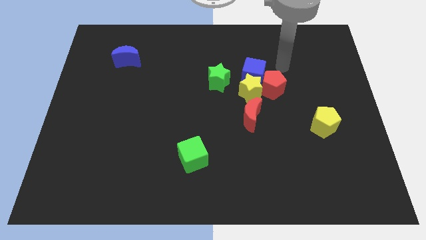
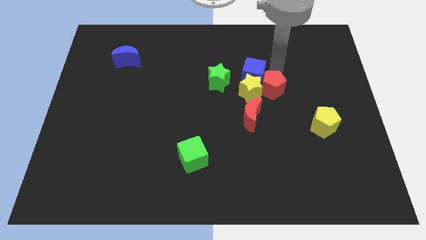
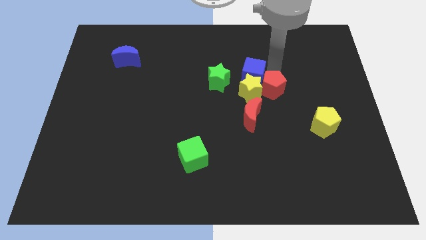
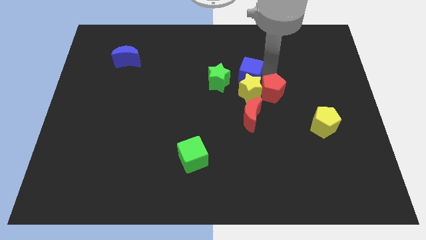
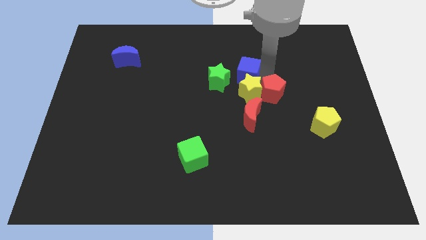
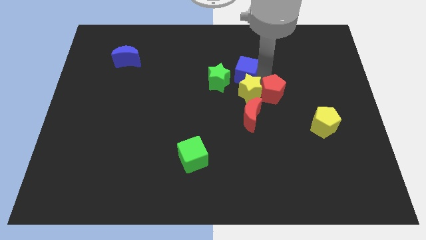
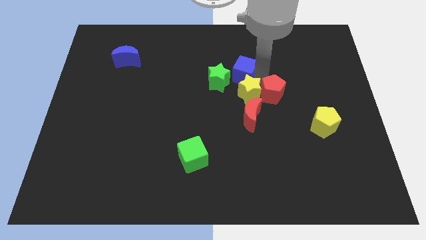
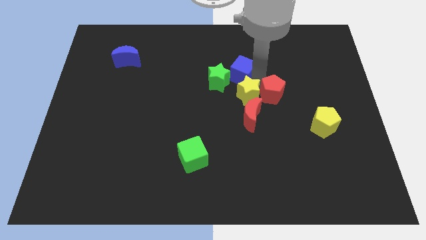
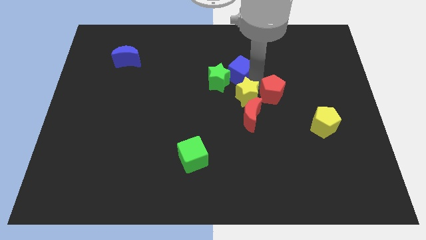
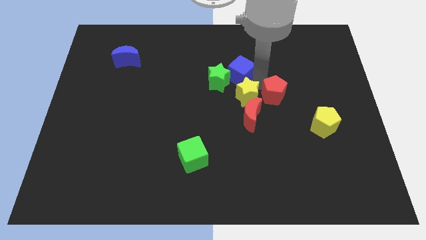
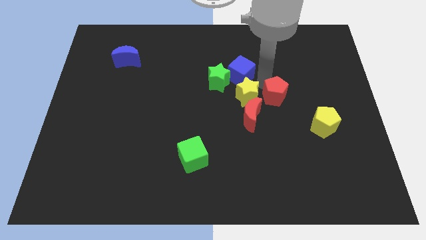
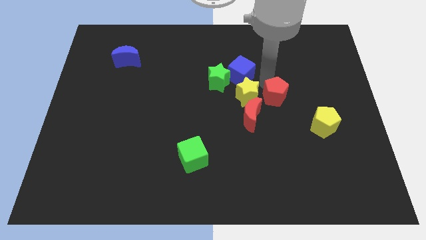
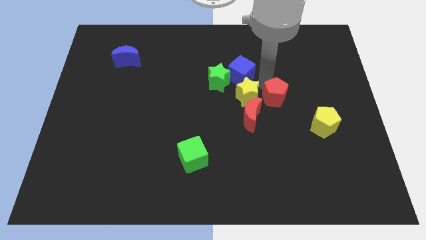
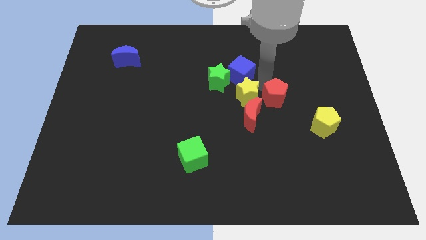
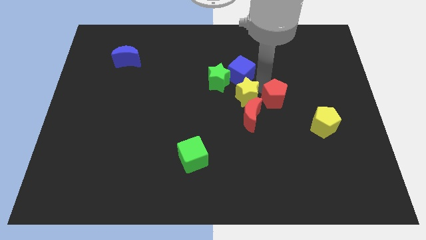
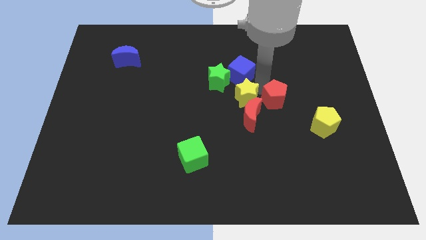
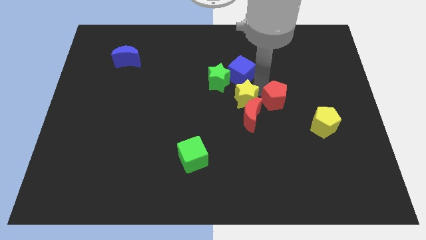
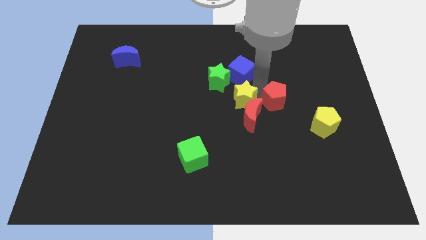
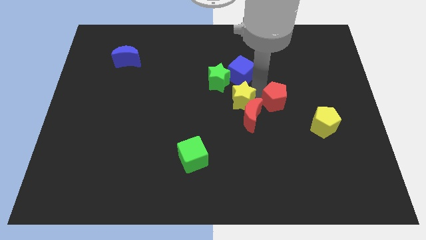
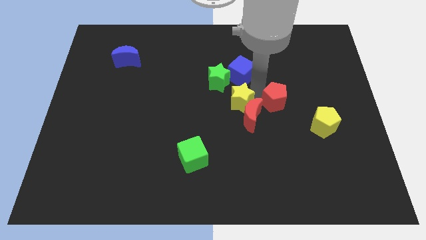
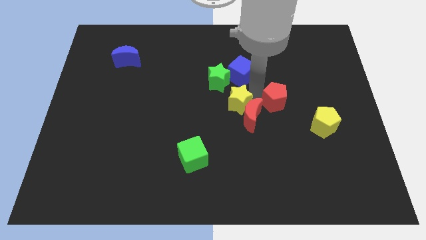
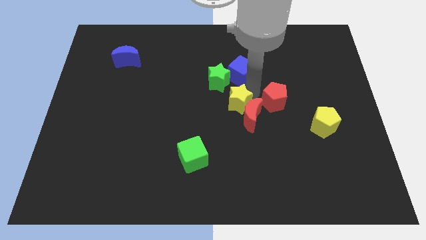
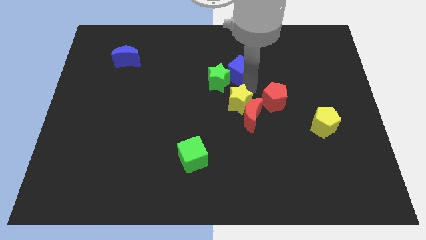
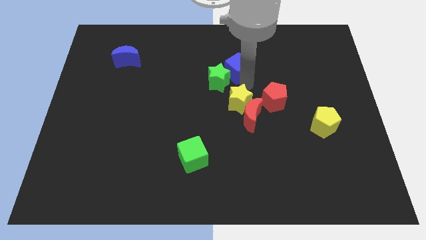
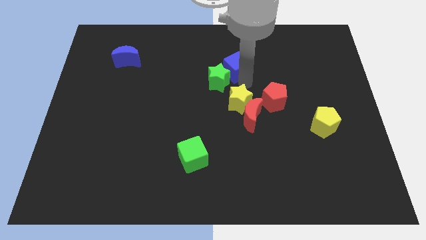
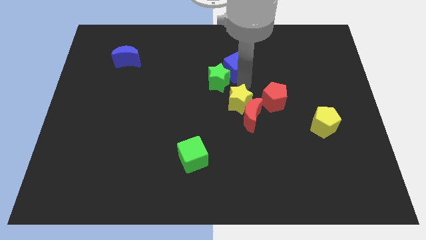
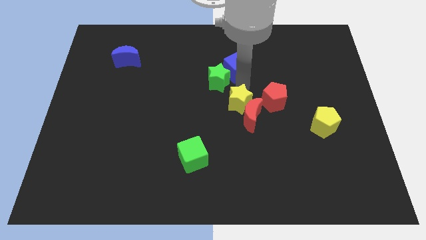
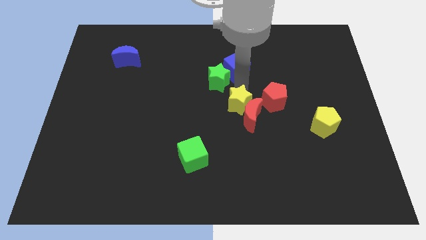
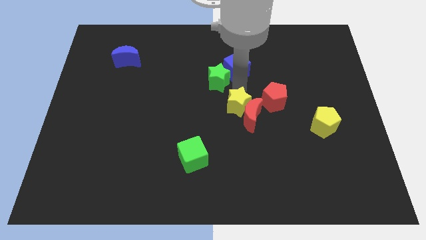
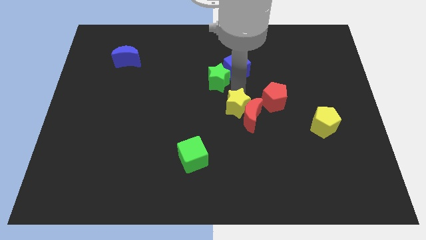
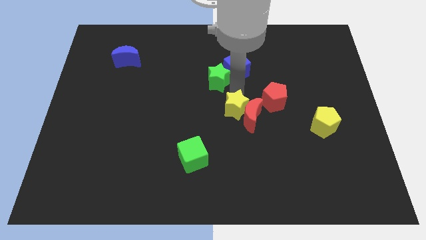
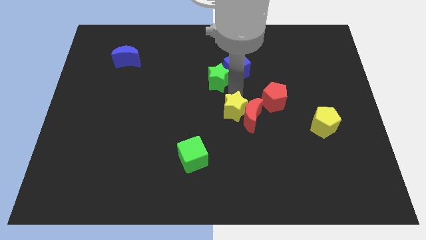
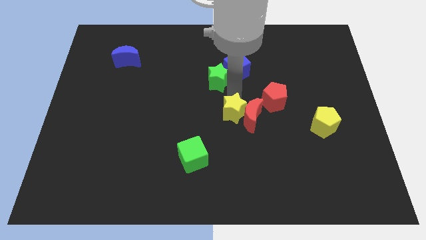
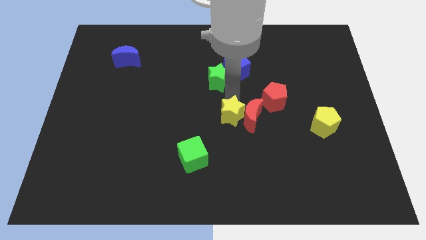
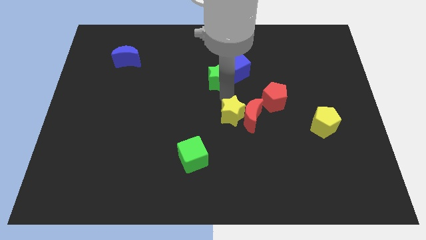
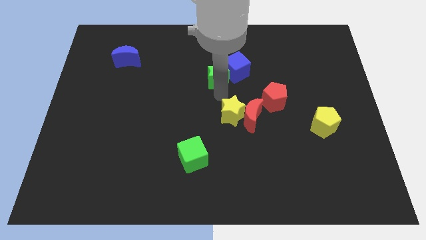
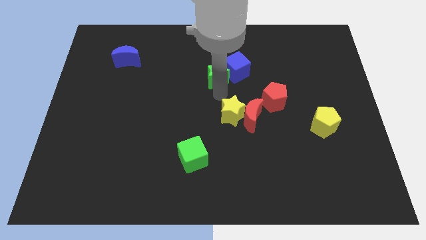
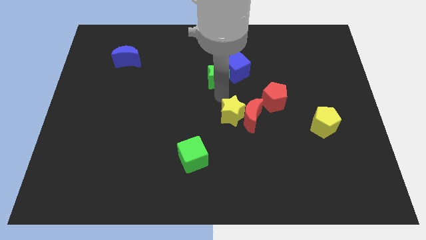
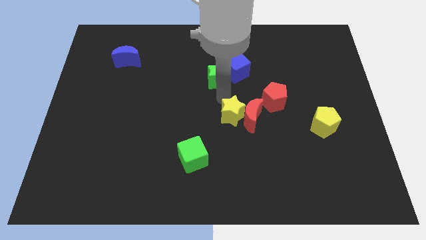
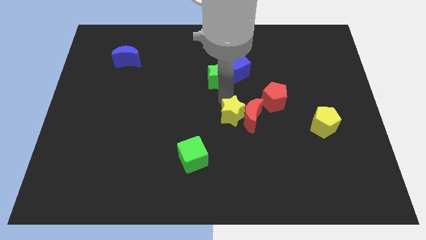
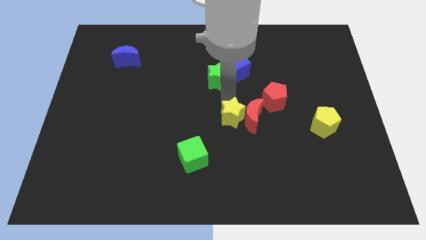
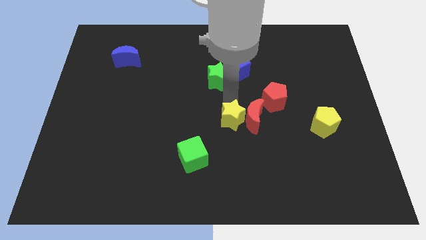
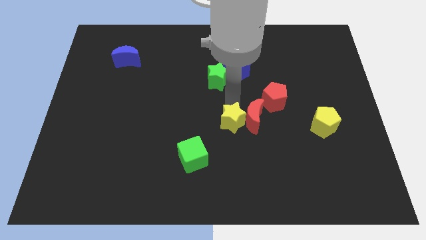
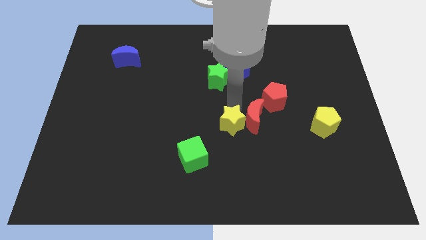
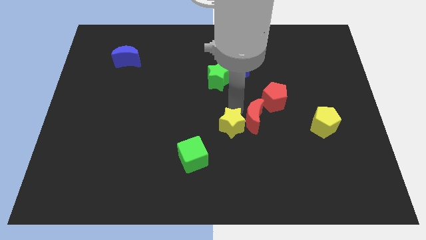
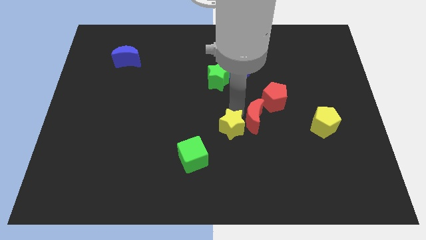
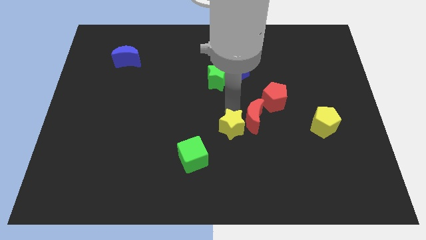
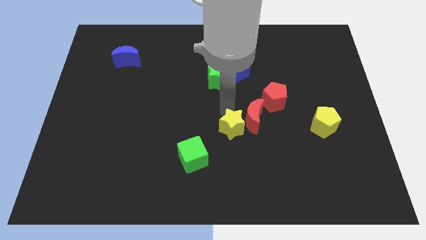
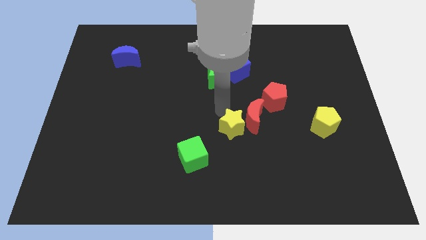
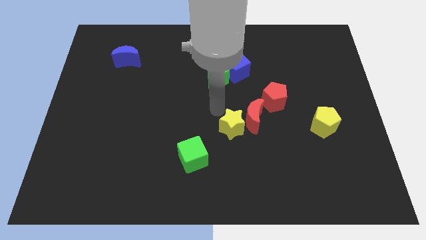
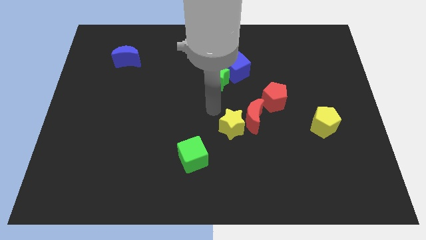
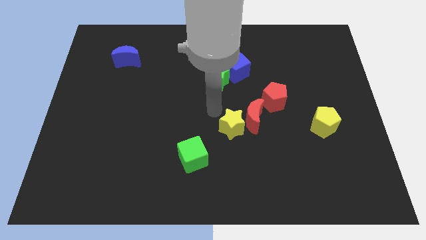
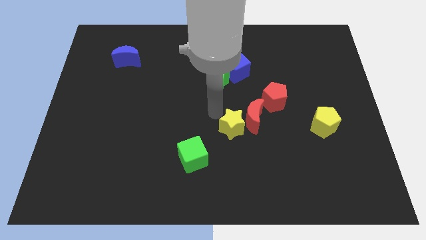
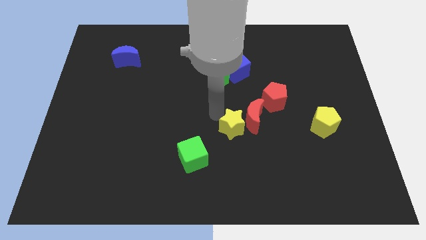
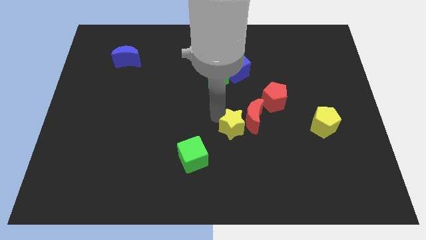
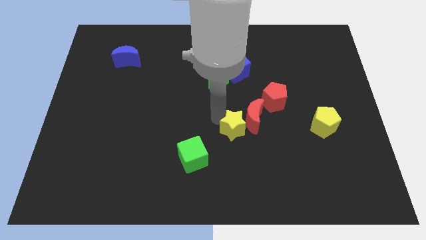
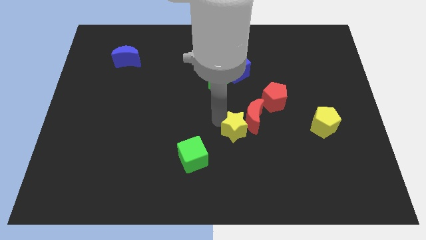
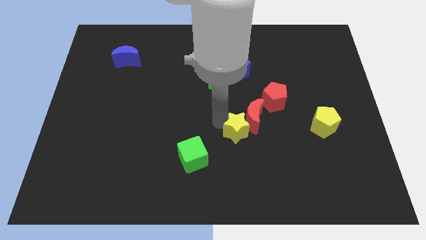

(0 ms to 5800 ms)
slide the yellow star to the bottom side of the red moon

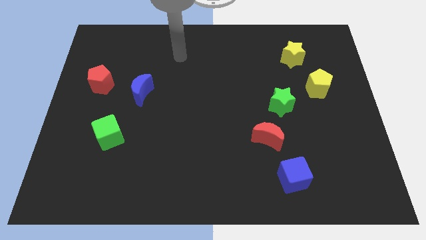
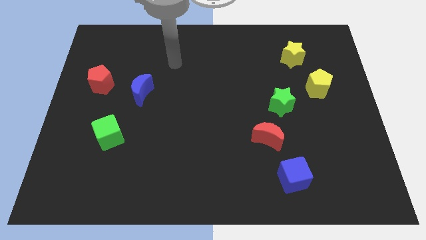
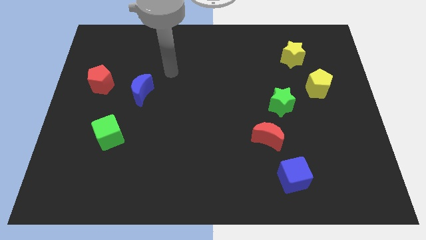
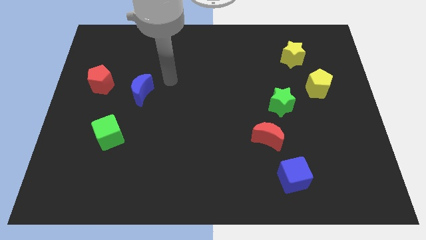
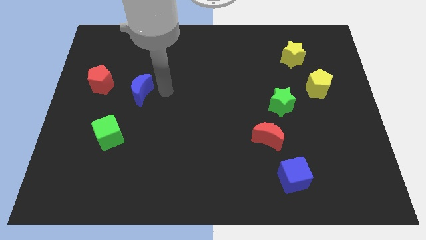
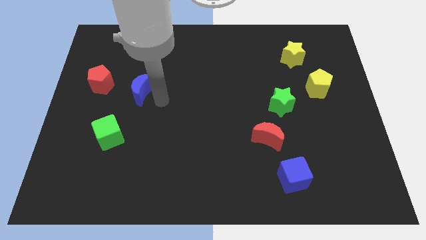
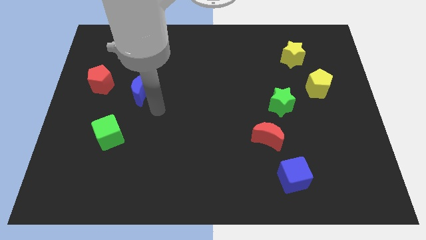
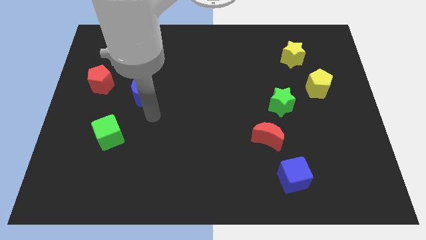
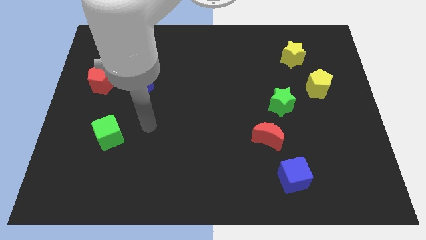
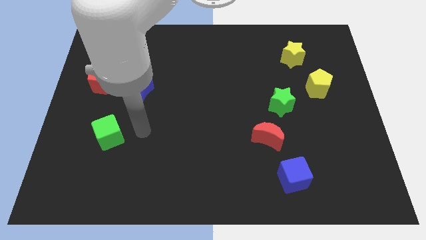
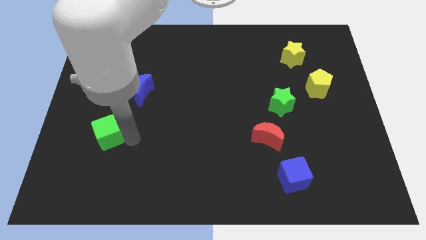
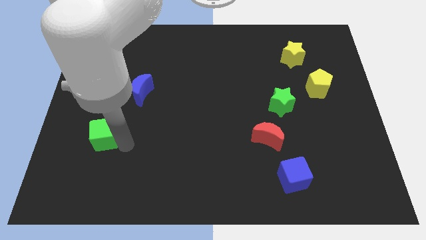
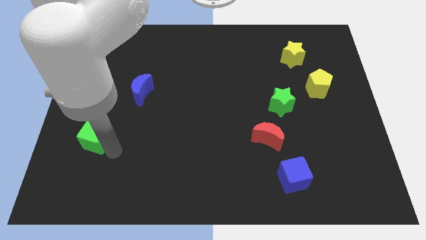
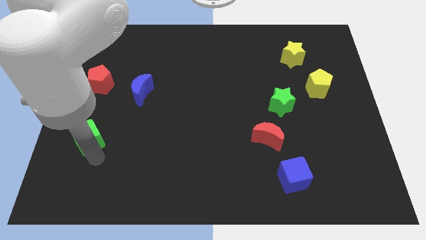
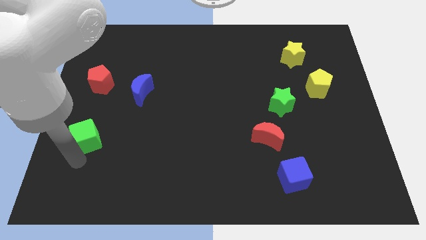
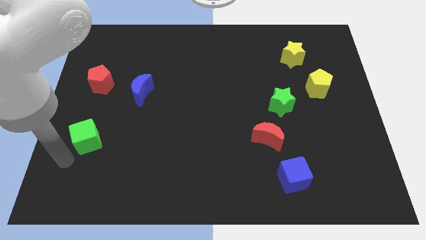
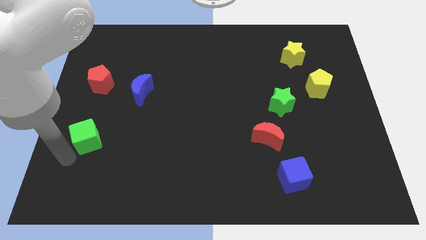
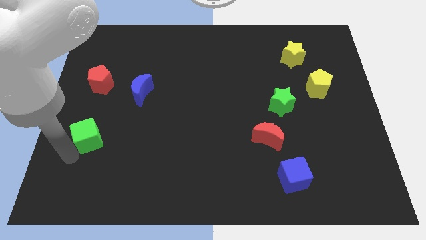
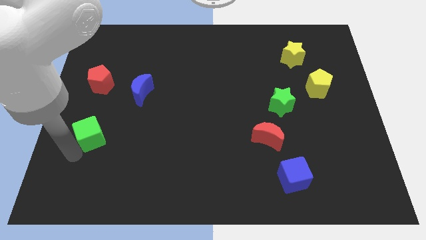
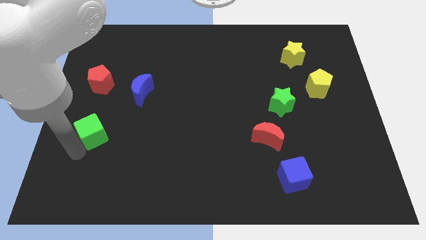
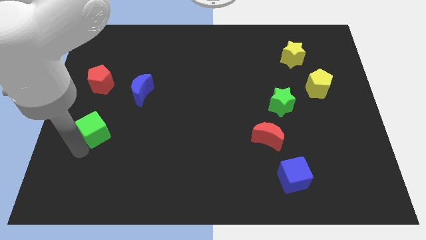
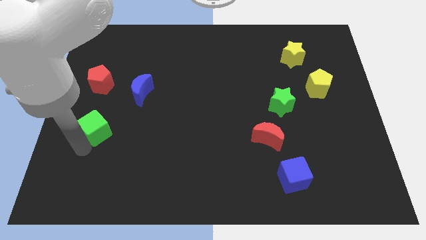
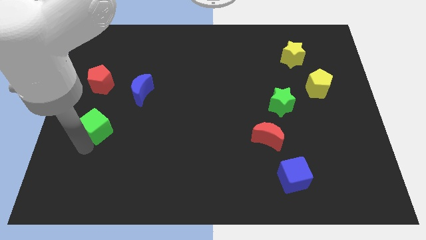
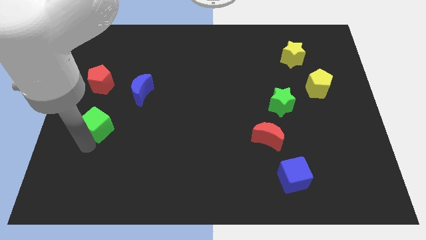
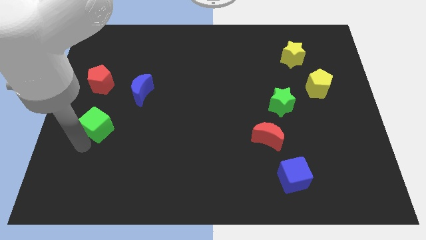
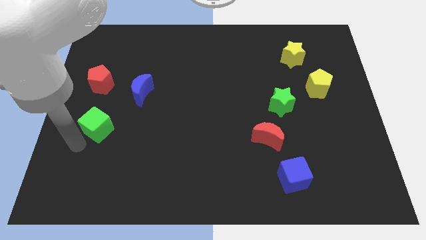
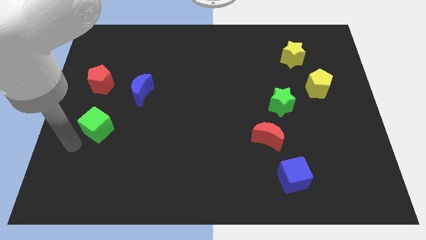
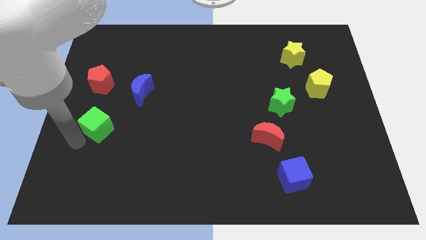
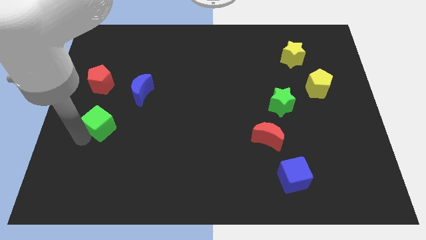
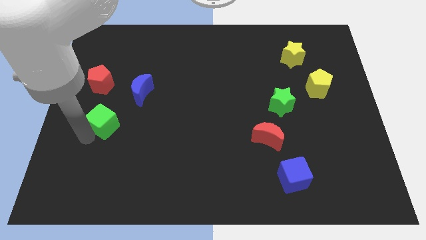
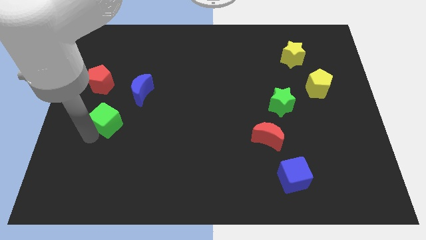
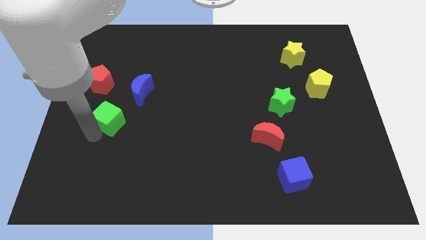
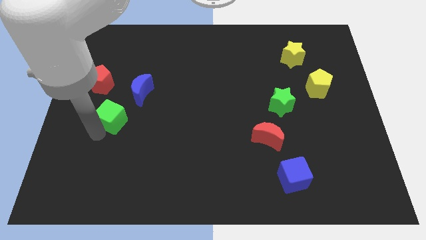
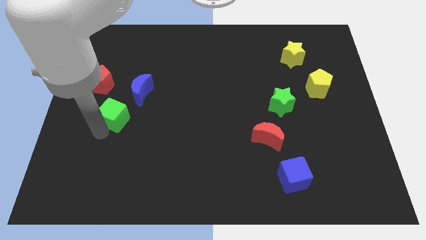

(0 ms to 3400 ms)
move the green cube diagonally down and to the right of the red pentagon
